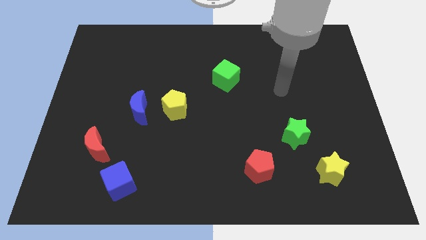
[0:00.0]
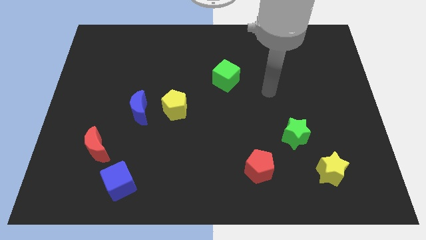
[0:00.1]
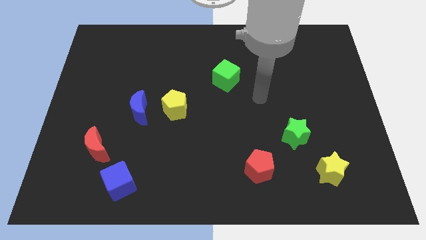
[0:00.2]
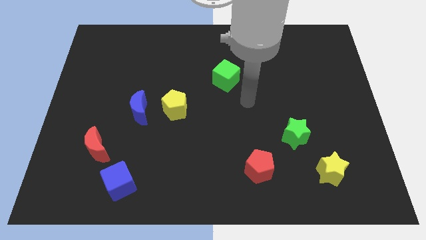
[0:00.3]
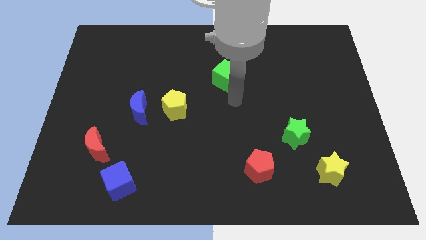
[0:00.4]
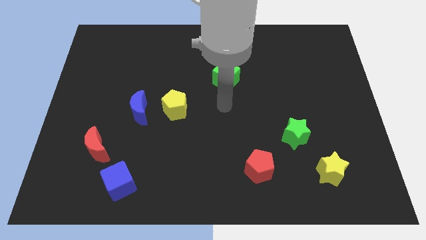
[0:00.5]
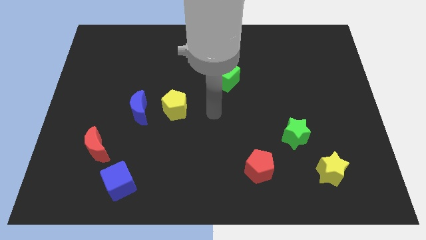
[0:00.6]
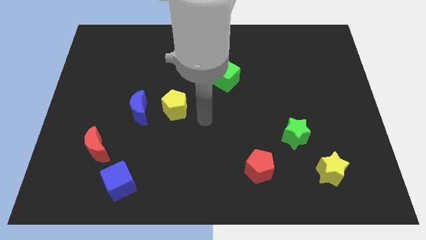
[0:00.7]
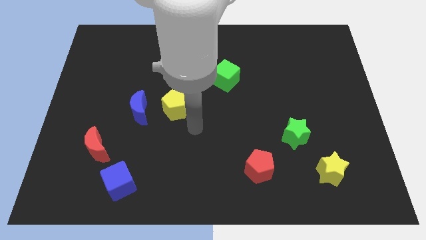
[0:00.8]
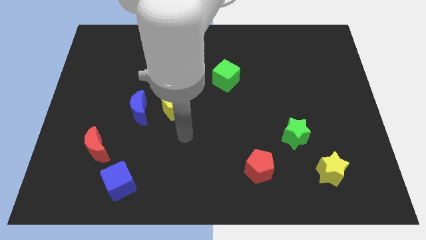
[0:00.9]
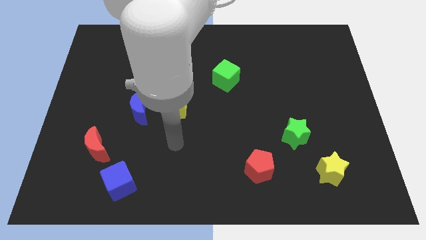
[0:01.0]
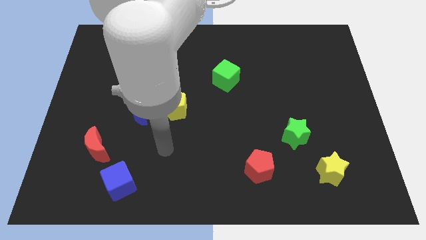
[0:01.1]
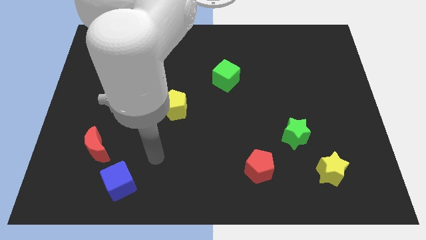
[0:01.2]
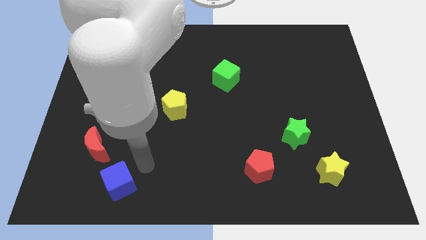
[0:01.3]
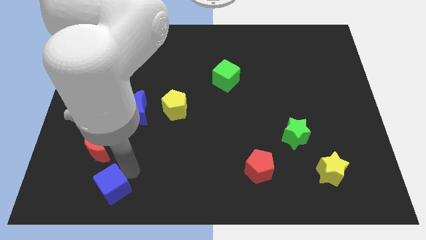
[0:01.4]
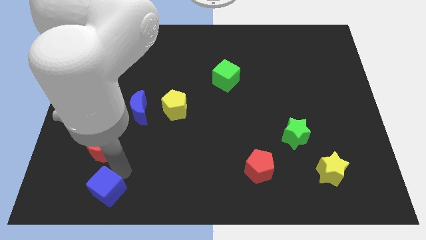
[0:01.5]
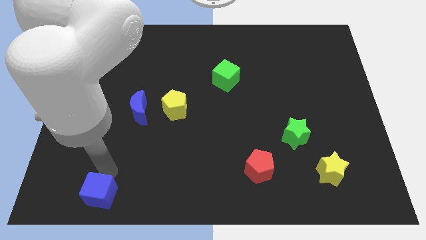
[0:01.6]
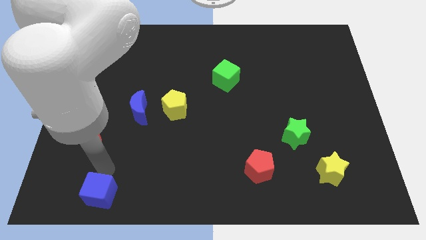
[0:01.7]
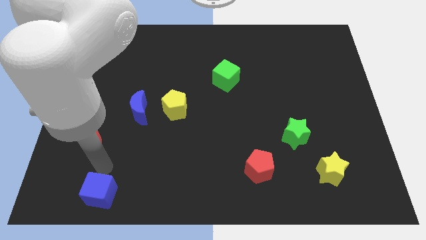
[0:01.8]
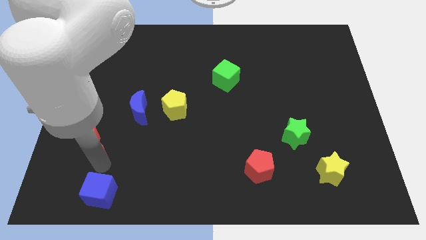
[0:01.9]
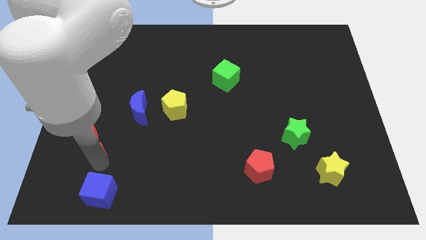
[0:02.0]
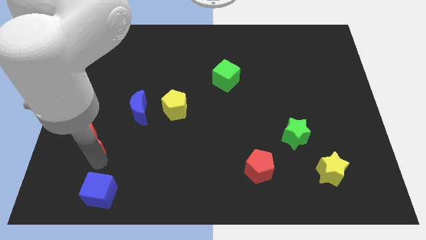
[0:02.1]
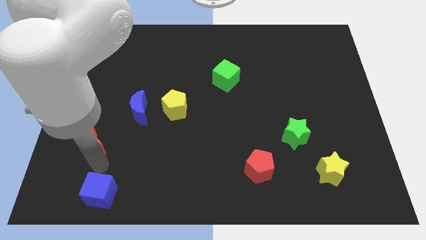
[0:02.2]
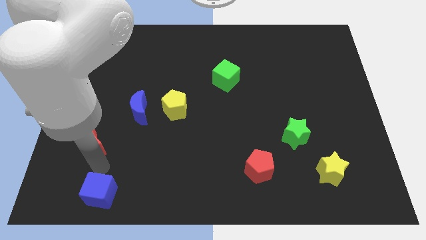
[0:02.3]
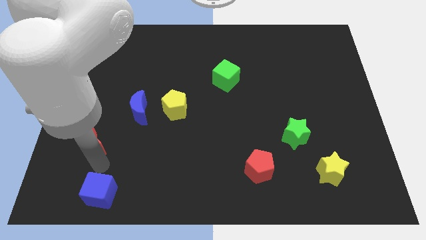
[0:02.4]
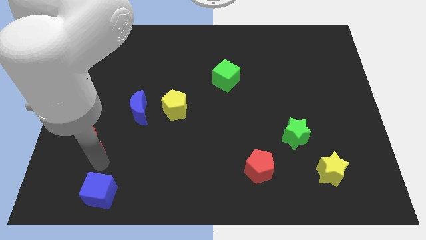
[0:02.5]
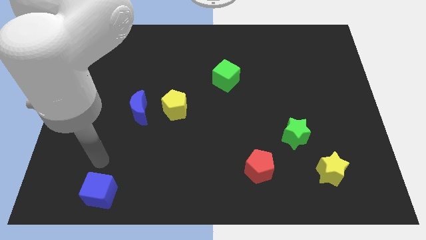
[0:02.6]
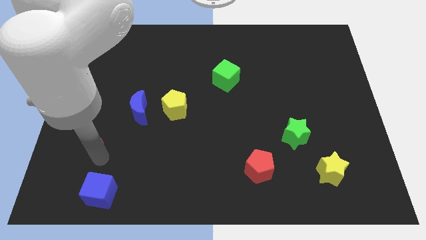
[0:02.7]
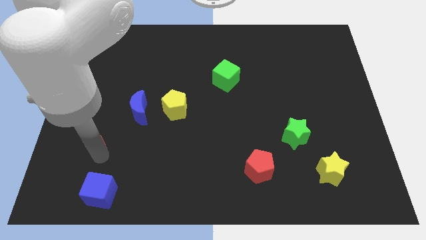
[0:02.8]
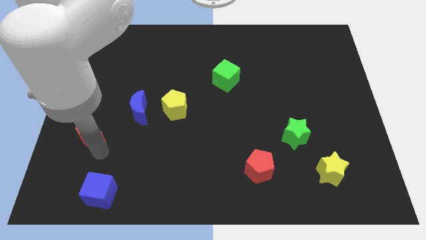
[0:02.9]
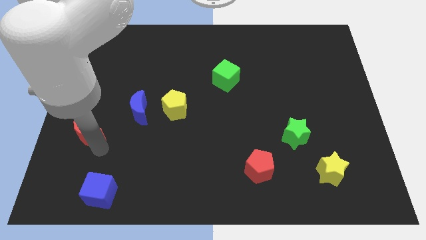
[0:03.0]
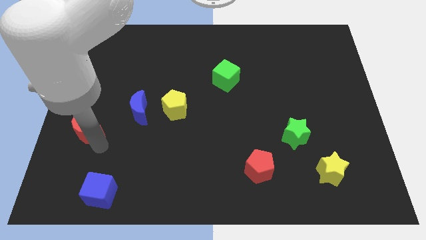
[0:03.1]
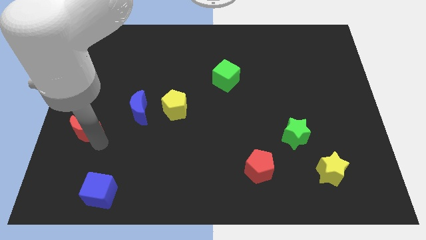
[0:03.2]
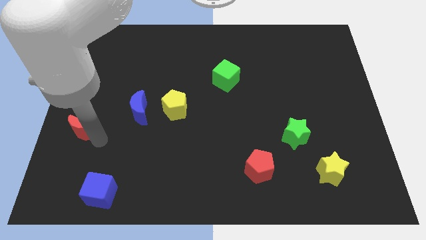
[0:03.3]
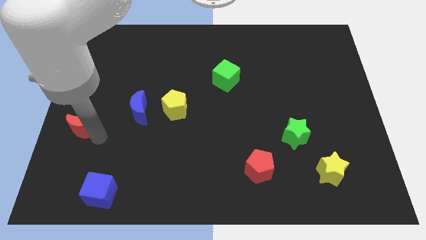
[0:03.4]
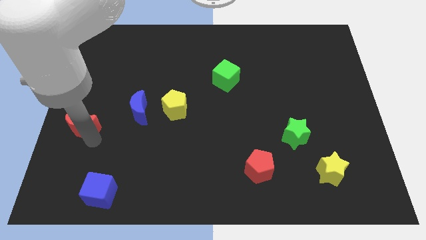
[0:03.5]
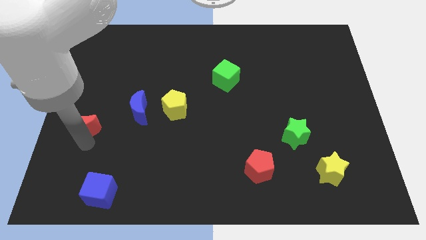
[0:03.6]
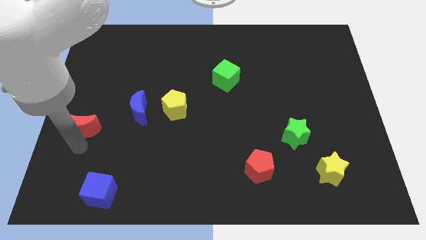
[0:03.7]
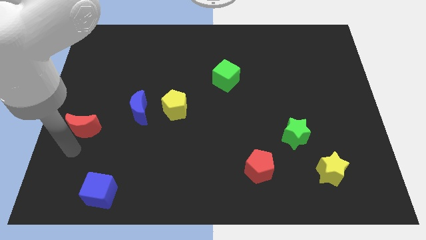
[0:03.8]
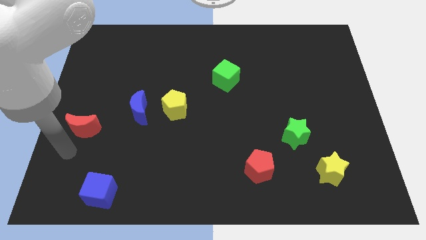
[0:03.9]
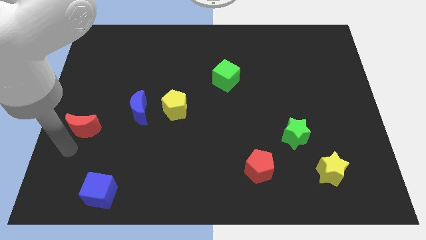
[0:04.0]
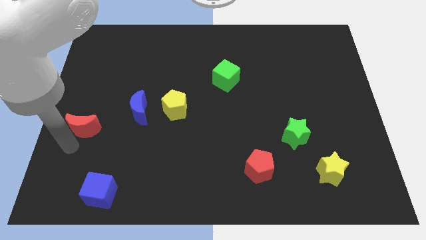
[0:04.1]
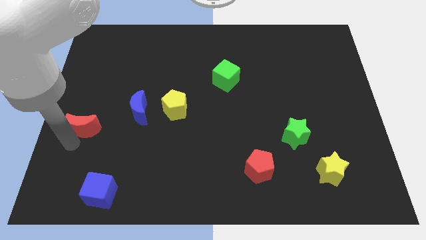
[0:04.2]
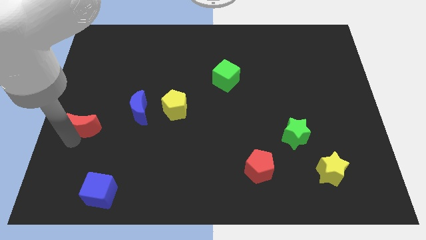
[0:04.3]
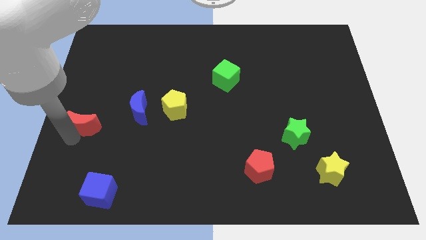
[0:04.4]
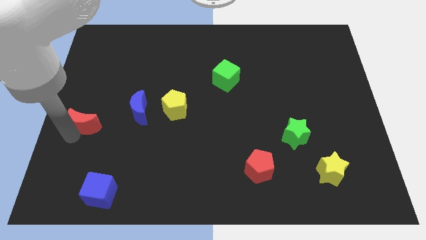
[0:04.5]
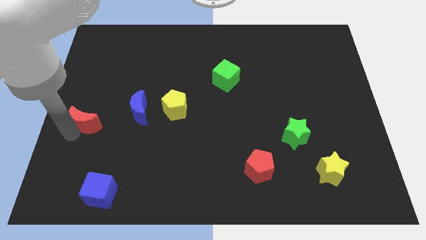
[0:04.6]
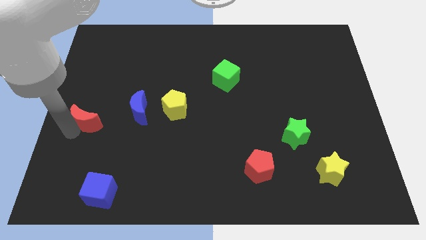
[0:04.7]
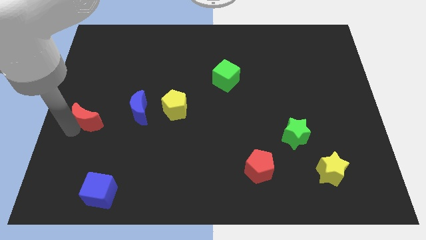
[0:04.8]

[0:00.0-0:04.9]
slightly move the red moon up

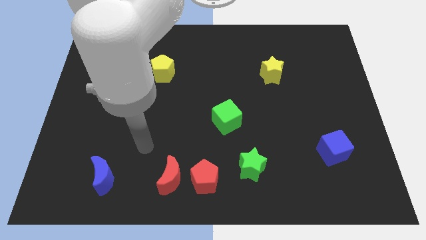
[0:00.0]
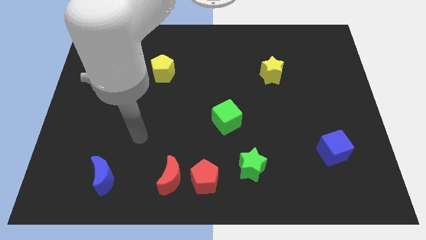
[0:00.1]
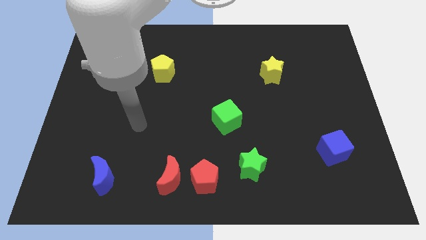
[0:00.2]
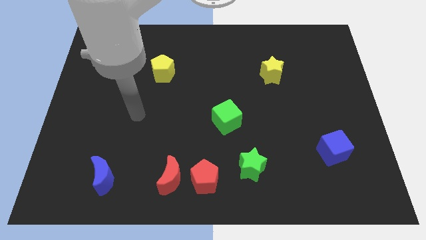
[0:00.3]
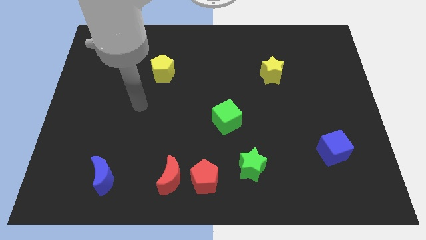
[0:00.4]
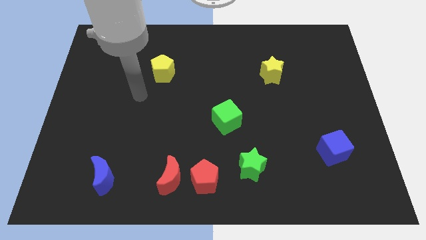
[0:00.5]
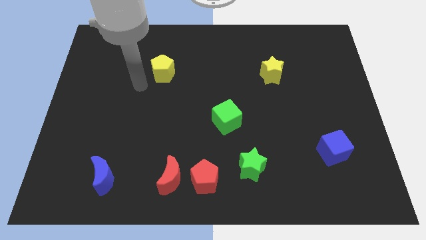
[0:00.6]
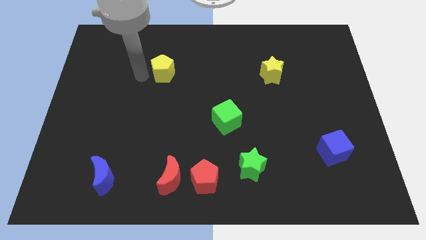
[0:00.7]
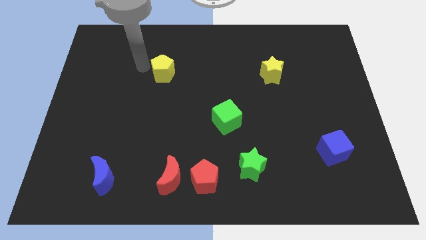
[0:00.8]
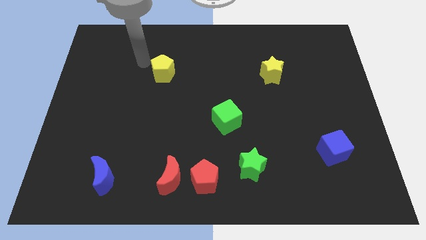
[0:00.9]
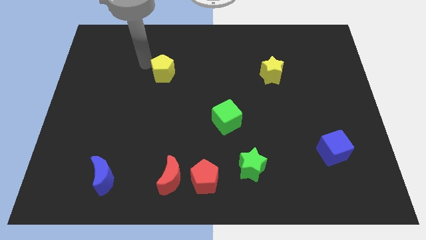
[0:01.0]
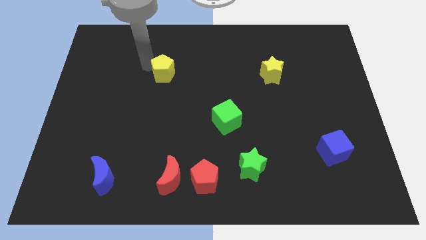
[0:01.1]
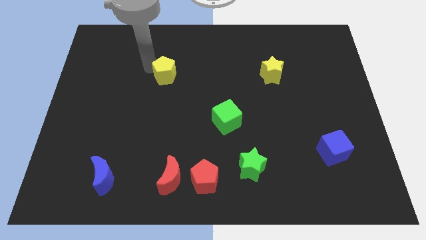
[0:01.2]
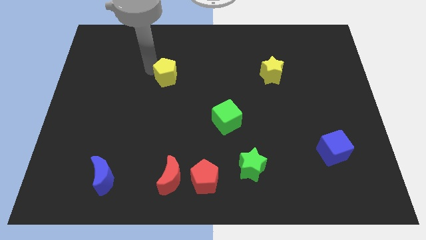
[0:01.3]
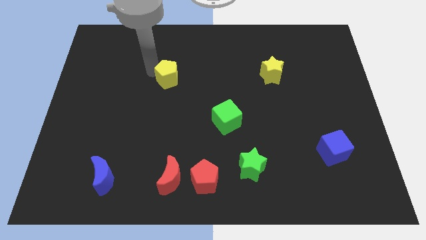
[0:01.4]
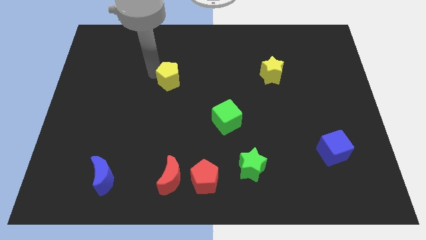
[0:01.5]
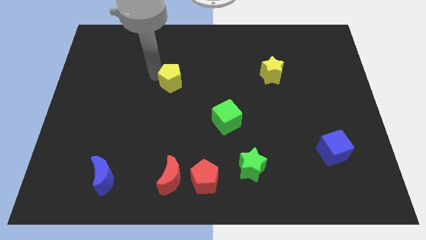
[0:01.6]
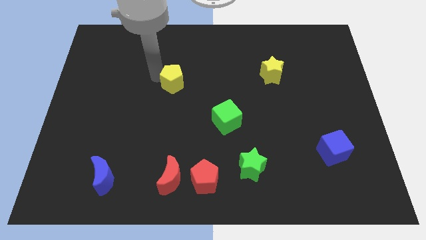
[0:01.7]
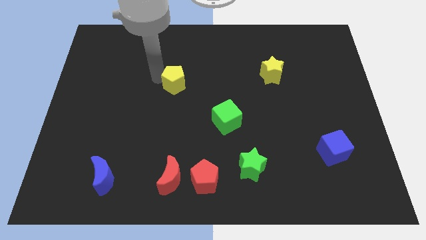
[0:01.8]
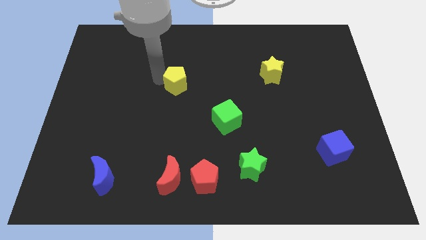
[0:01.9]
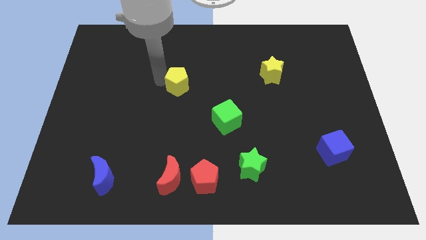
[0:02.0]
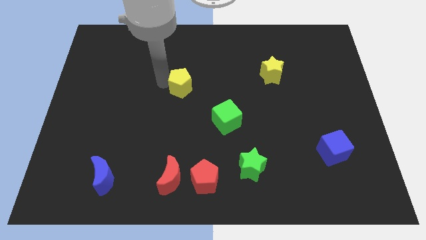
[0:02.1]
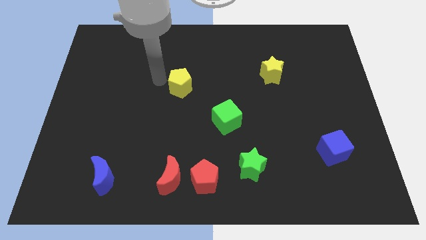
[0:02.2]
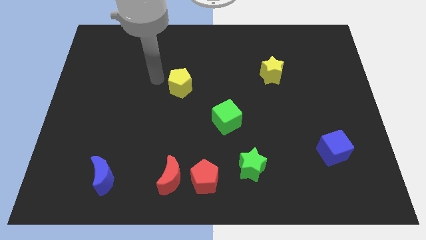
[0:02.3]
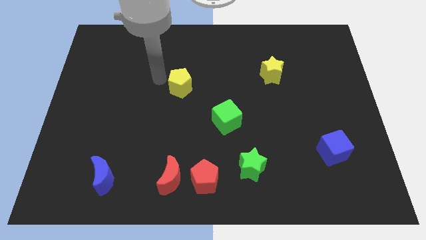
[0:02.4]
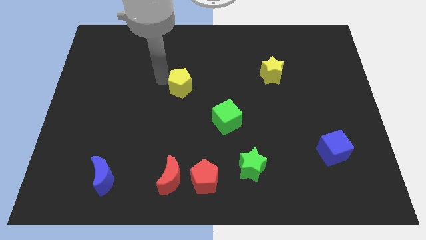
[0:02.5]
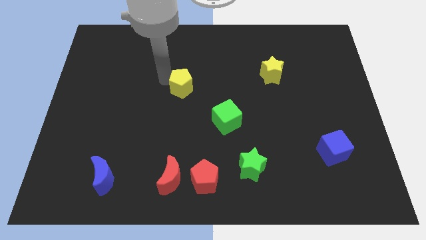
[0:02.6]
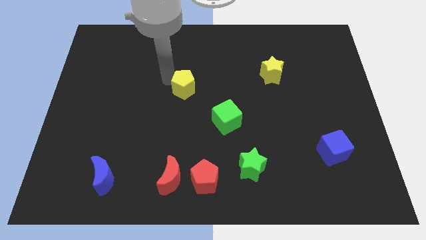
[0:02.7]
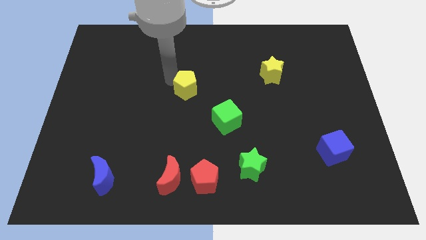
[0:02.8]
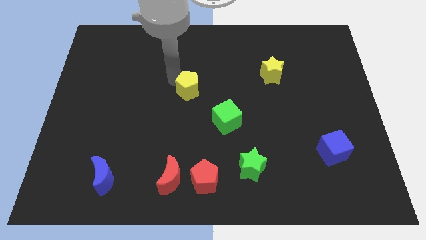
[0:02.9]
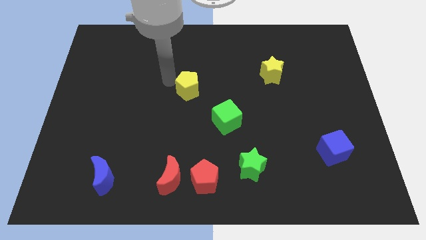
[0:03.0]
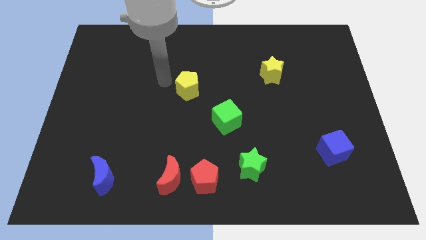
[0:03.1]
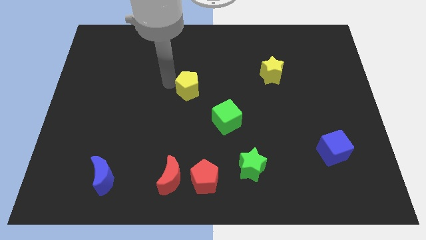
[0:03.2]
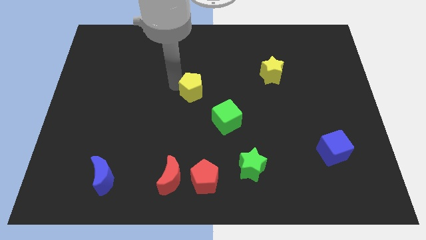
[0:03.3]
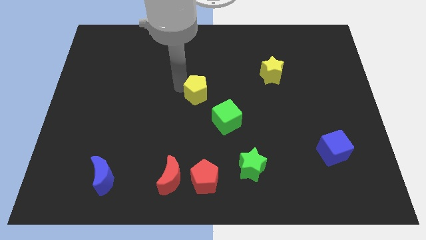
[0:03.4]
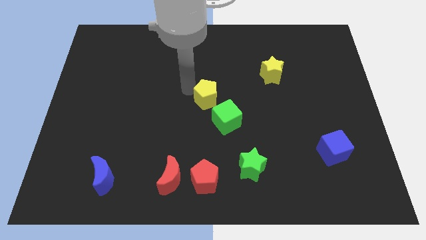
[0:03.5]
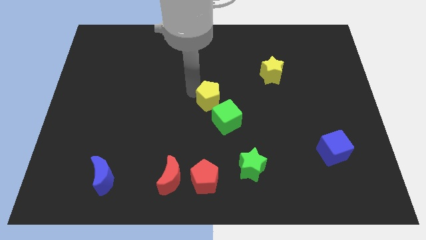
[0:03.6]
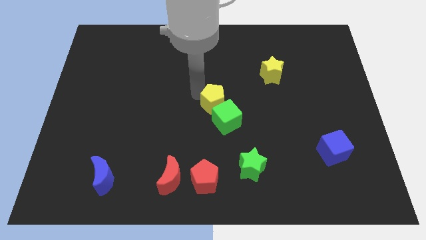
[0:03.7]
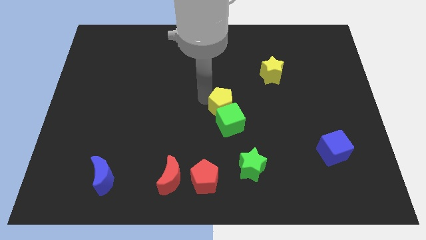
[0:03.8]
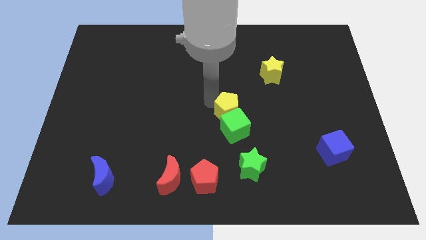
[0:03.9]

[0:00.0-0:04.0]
push the yellow pentagon down and right
